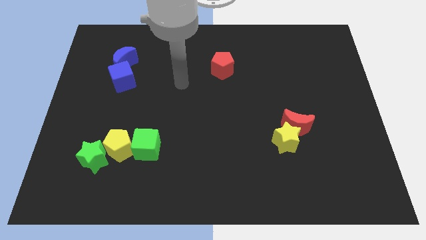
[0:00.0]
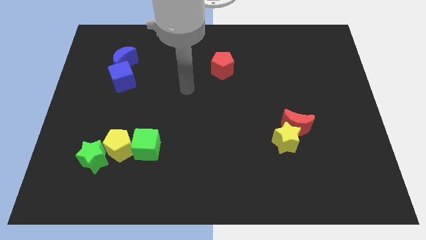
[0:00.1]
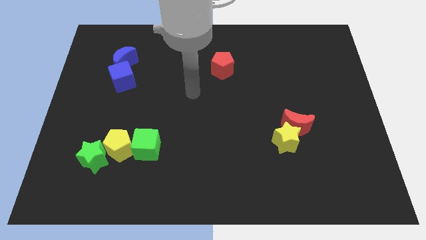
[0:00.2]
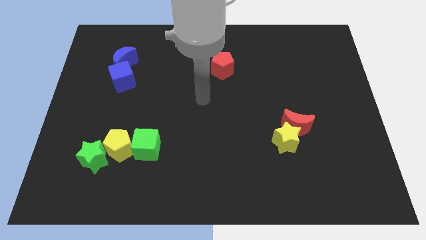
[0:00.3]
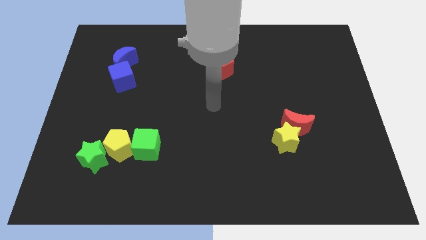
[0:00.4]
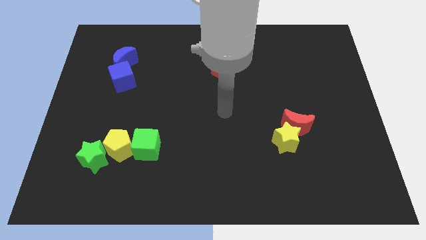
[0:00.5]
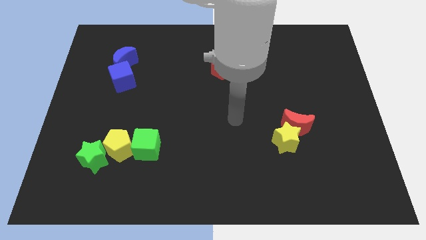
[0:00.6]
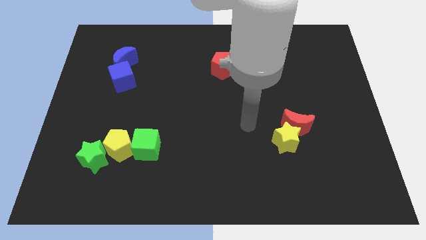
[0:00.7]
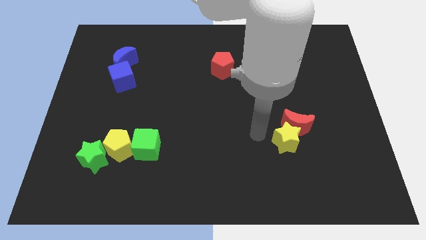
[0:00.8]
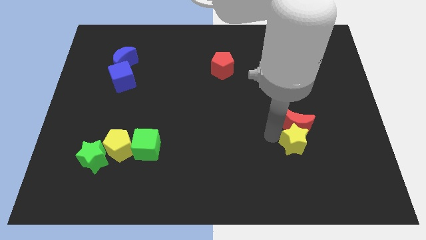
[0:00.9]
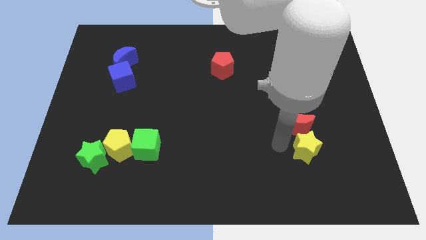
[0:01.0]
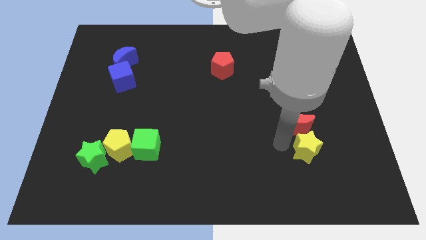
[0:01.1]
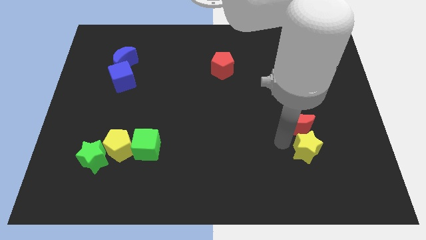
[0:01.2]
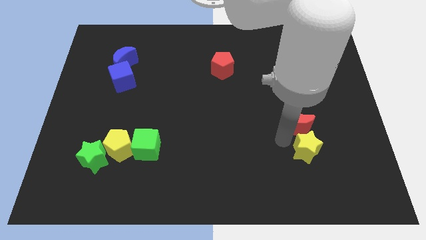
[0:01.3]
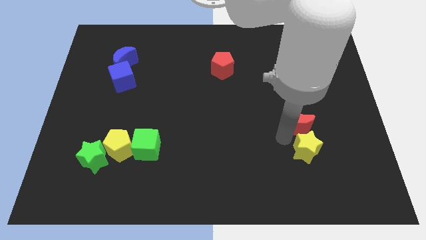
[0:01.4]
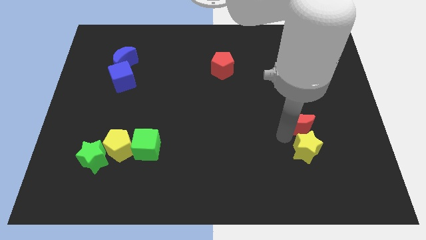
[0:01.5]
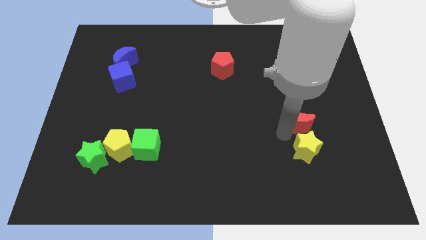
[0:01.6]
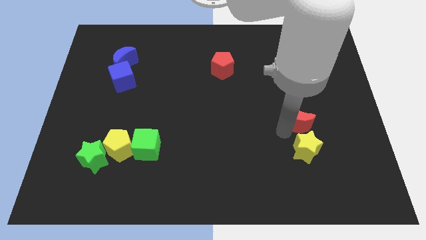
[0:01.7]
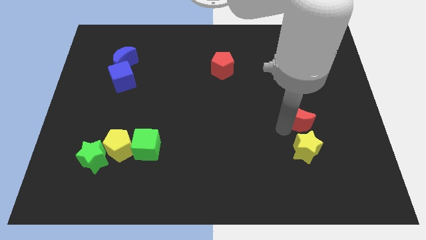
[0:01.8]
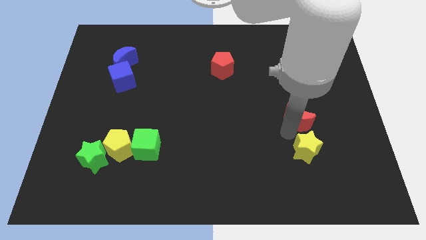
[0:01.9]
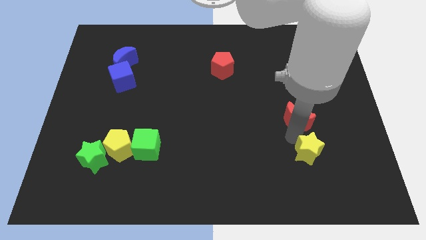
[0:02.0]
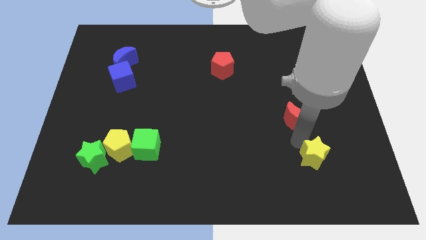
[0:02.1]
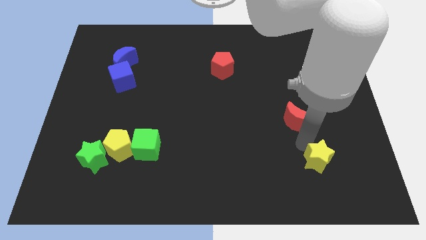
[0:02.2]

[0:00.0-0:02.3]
move the red moon away from the yellow star

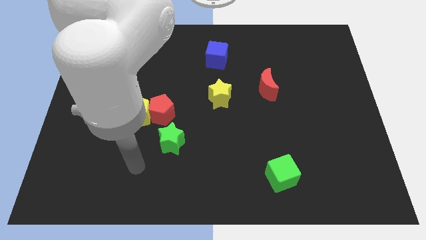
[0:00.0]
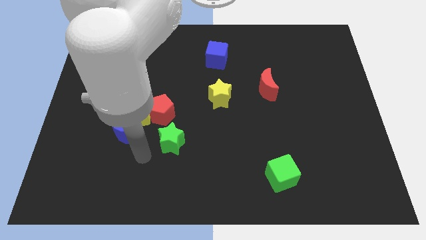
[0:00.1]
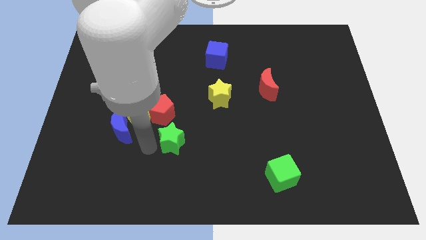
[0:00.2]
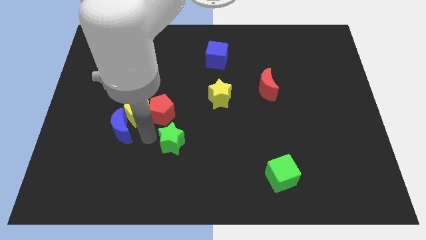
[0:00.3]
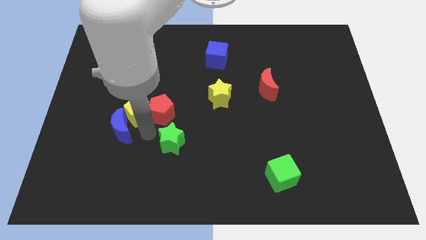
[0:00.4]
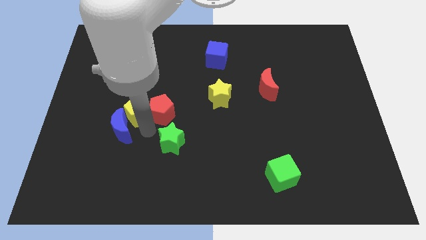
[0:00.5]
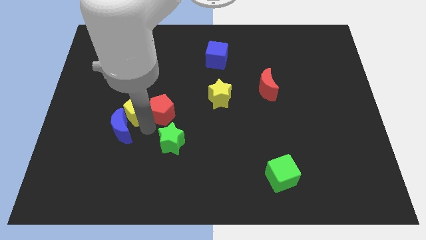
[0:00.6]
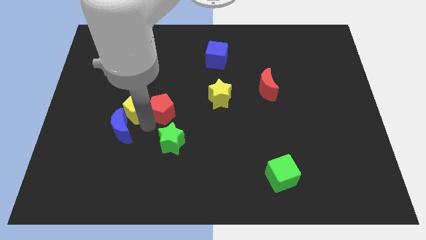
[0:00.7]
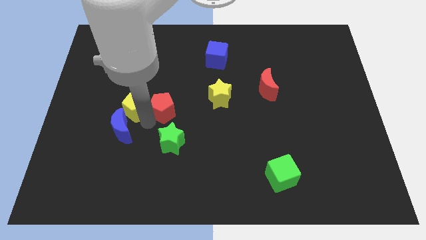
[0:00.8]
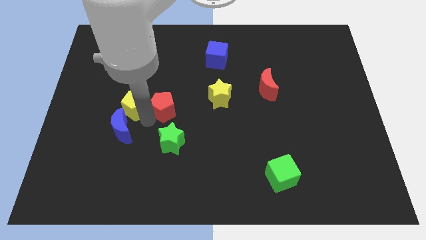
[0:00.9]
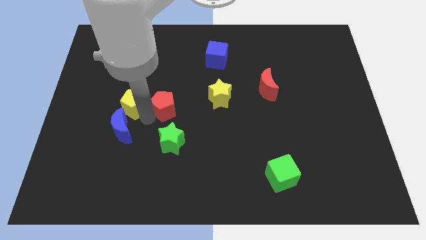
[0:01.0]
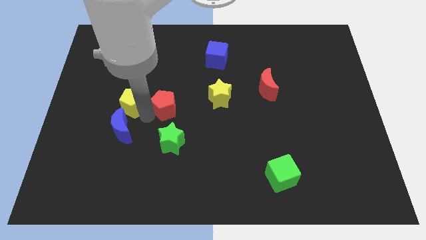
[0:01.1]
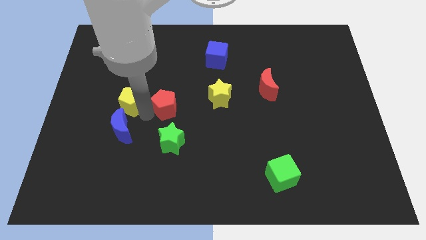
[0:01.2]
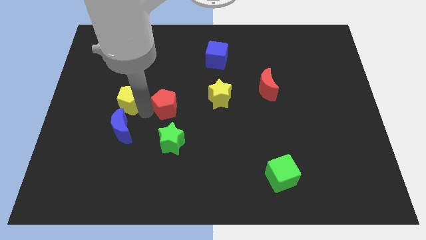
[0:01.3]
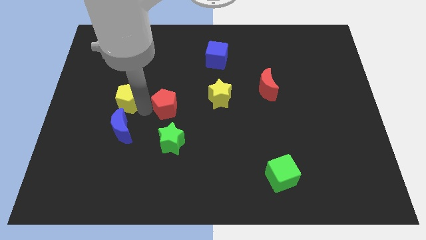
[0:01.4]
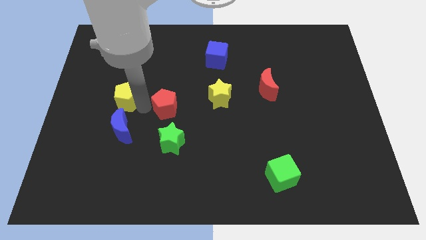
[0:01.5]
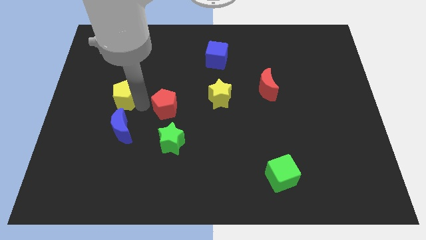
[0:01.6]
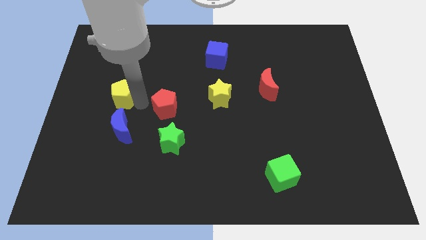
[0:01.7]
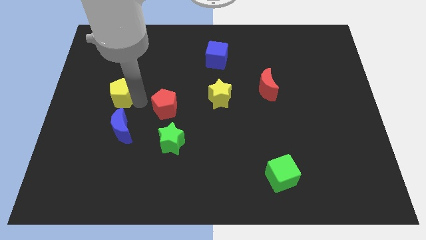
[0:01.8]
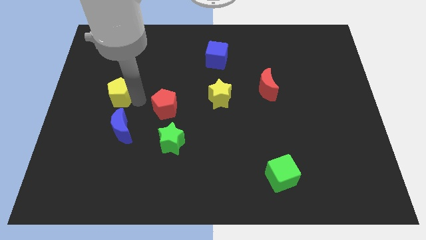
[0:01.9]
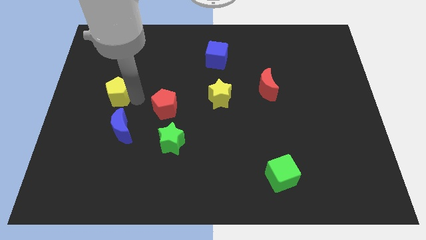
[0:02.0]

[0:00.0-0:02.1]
move the yellow pentagon away from the red pentagon and blue moon

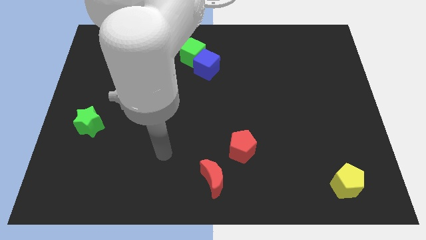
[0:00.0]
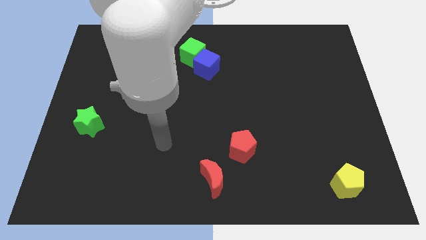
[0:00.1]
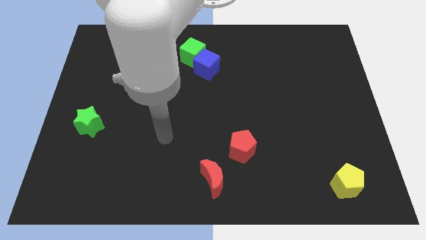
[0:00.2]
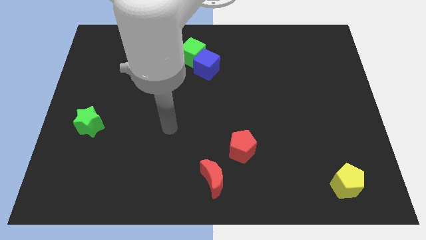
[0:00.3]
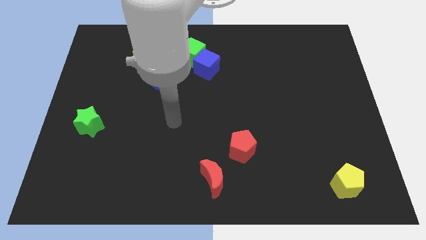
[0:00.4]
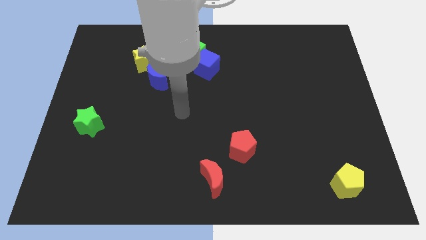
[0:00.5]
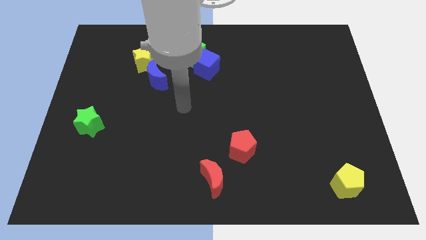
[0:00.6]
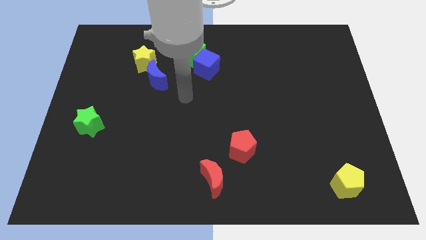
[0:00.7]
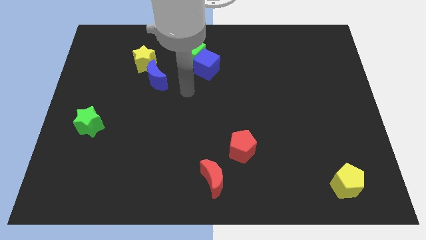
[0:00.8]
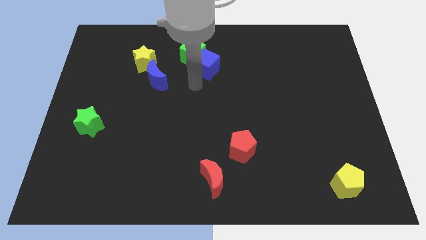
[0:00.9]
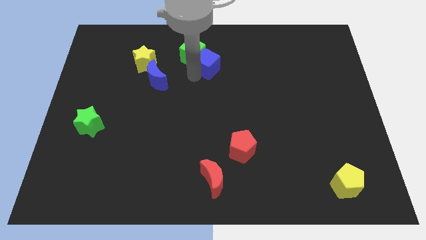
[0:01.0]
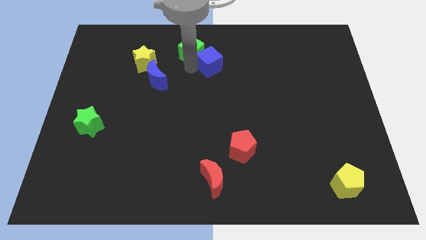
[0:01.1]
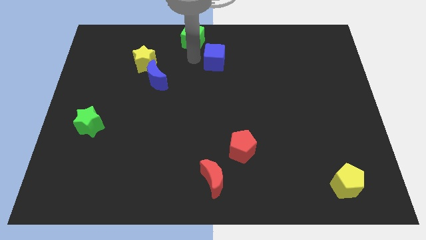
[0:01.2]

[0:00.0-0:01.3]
separate the blue cube from the green cube

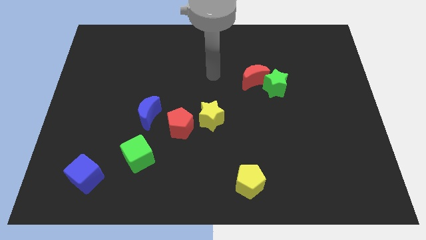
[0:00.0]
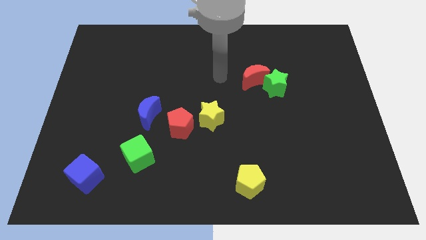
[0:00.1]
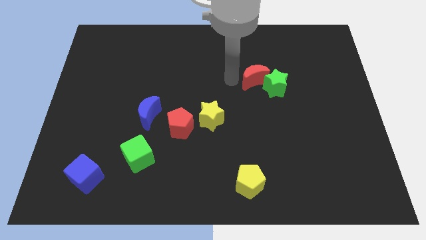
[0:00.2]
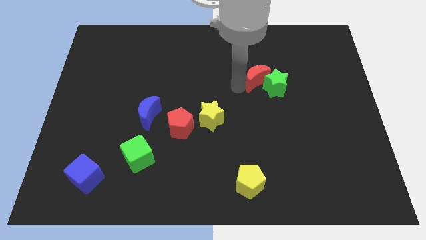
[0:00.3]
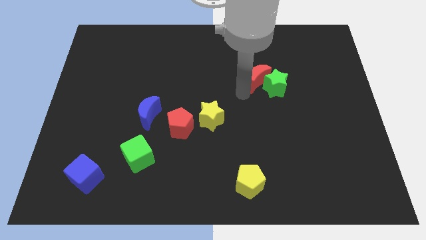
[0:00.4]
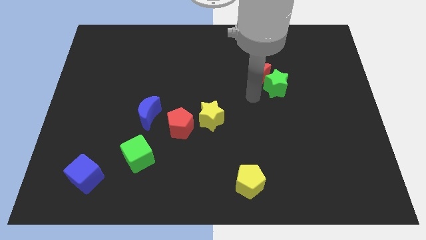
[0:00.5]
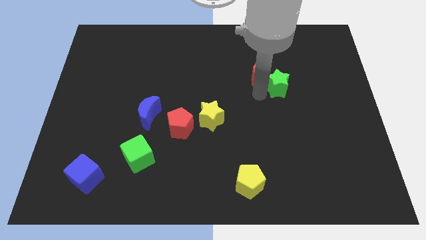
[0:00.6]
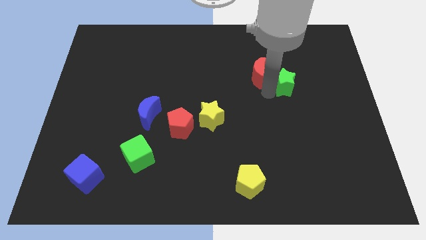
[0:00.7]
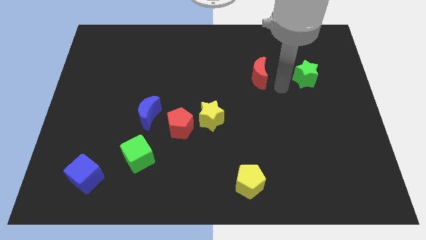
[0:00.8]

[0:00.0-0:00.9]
move the red moon away from the green star

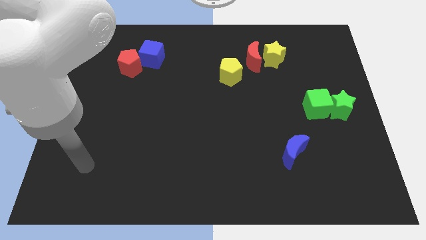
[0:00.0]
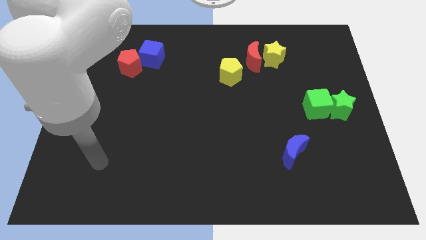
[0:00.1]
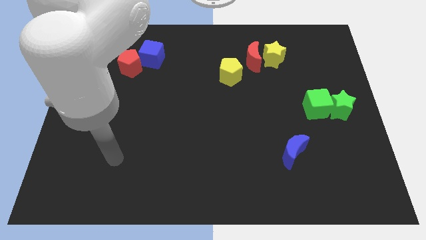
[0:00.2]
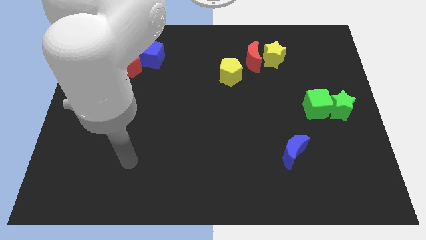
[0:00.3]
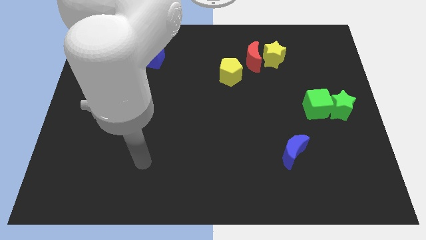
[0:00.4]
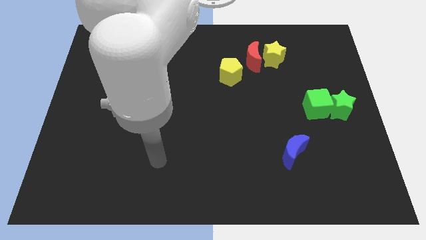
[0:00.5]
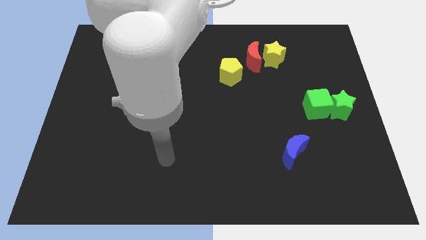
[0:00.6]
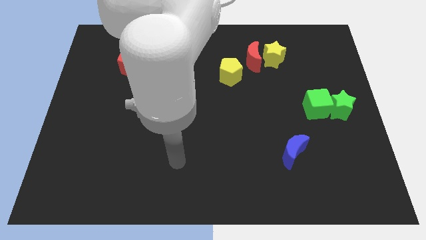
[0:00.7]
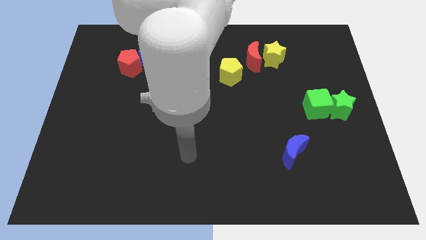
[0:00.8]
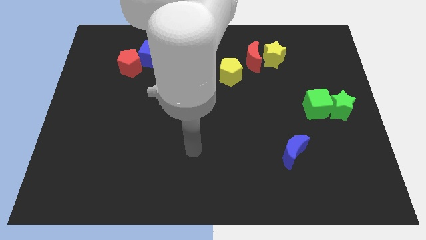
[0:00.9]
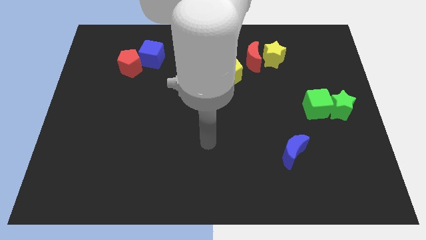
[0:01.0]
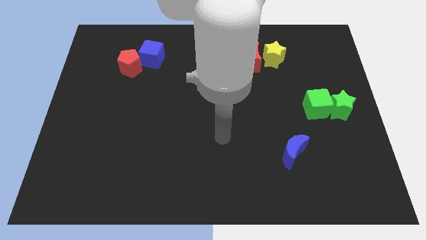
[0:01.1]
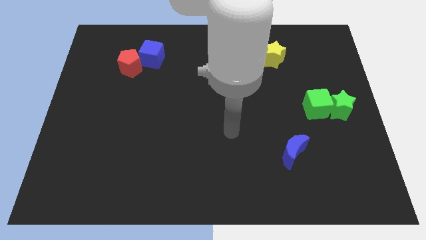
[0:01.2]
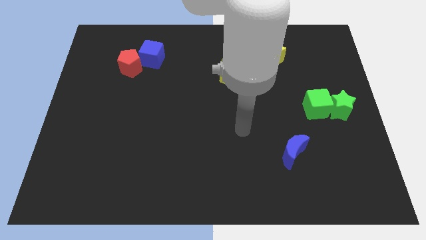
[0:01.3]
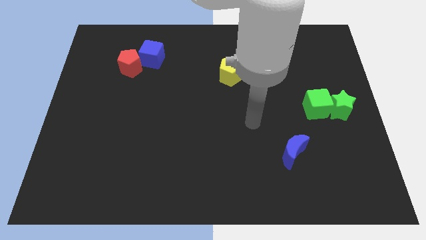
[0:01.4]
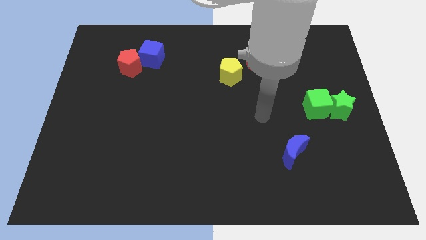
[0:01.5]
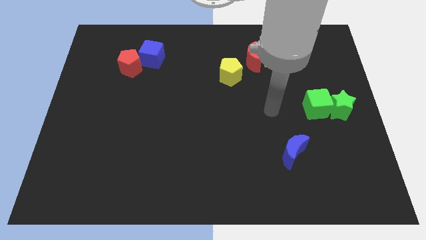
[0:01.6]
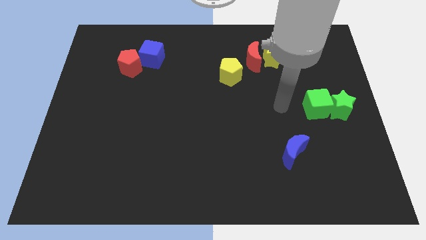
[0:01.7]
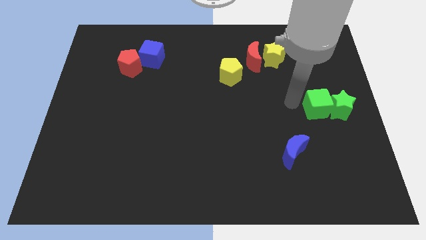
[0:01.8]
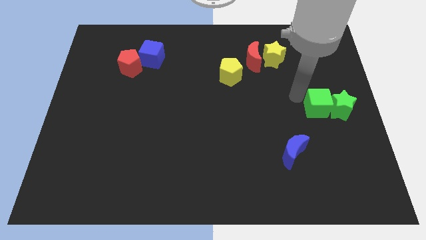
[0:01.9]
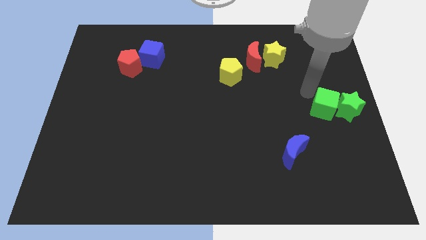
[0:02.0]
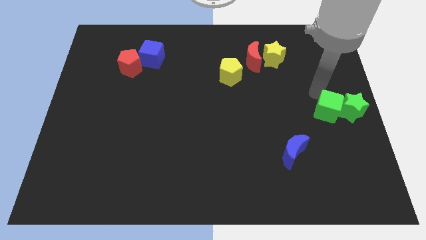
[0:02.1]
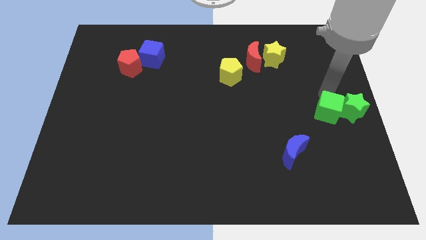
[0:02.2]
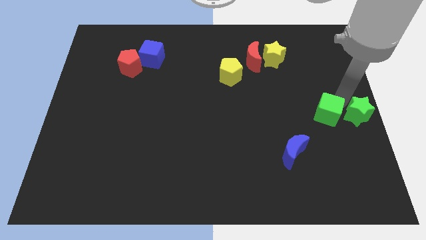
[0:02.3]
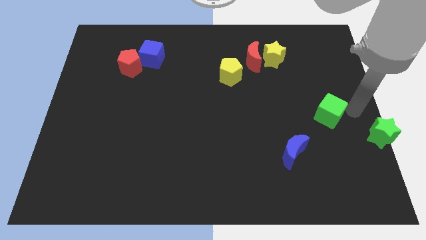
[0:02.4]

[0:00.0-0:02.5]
separate the green cube from the green star

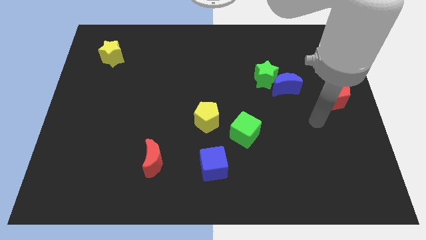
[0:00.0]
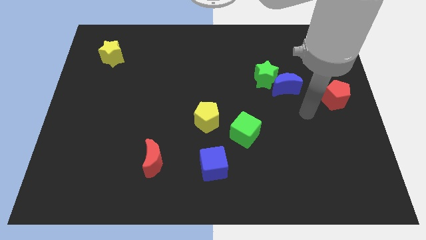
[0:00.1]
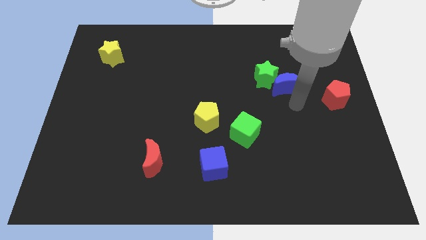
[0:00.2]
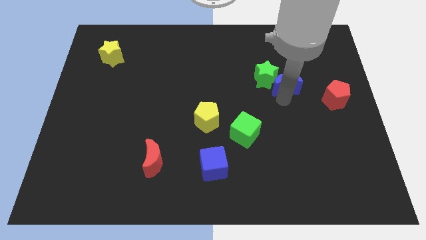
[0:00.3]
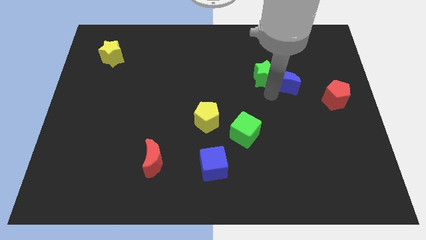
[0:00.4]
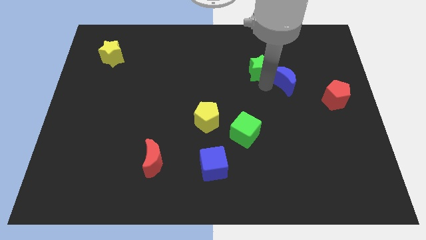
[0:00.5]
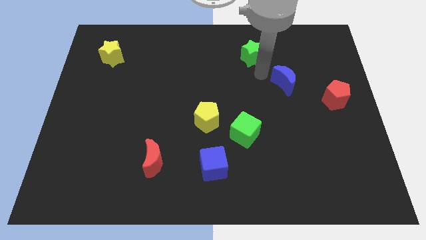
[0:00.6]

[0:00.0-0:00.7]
separate the blue moon from the green star
